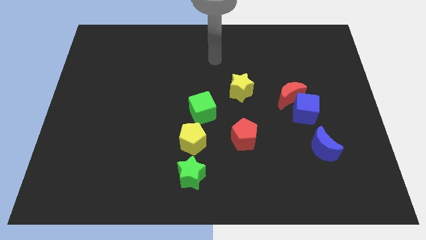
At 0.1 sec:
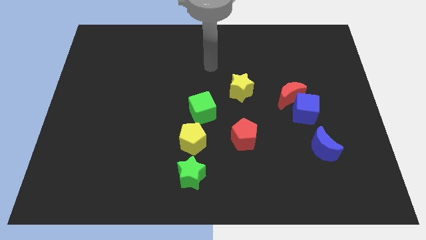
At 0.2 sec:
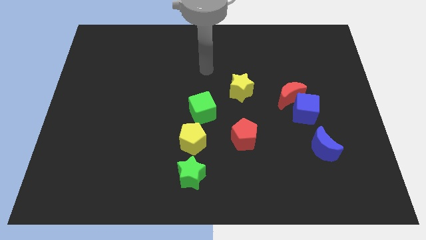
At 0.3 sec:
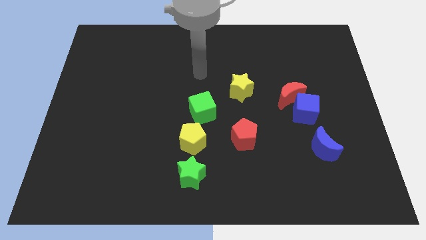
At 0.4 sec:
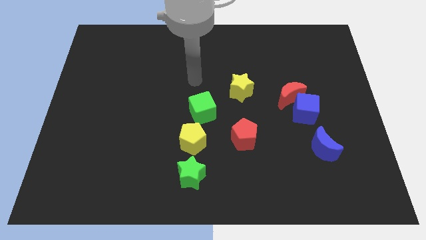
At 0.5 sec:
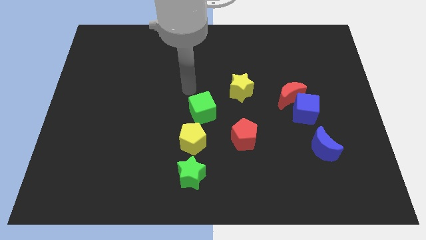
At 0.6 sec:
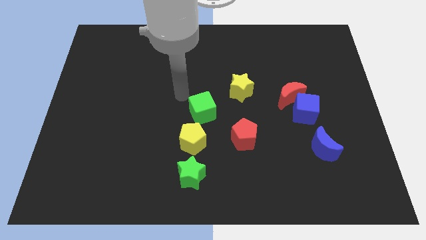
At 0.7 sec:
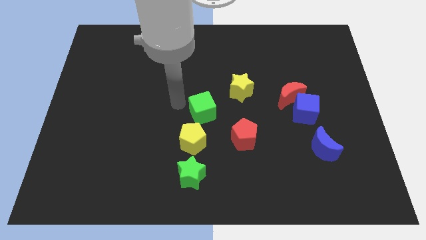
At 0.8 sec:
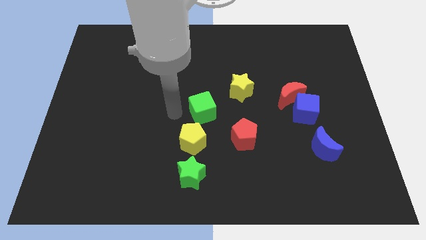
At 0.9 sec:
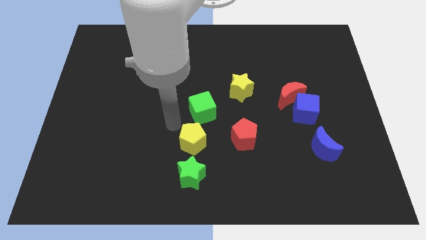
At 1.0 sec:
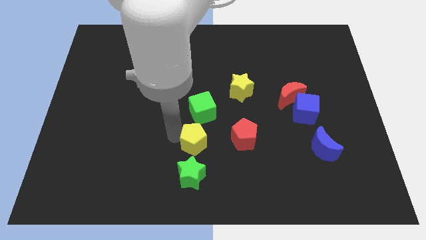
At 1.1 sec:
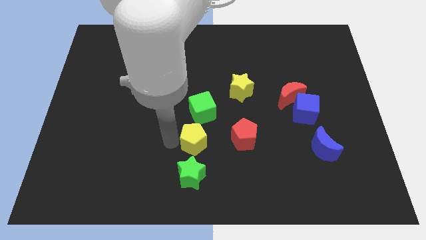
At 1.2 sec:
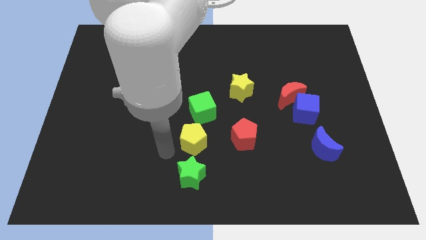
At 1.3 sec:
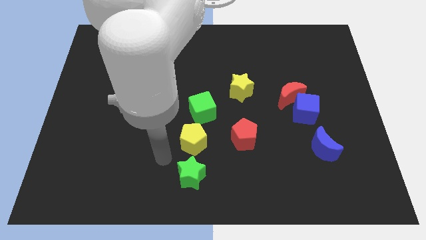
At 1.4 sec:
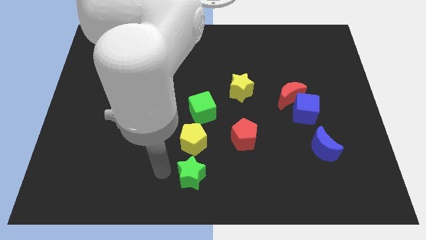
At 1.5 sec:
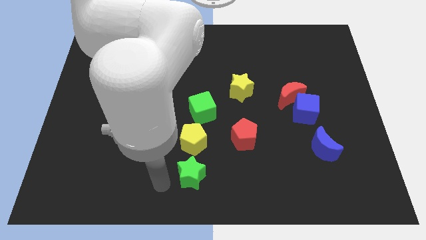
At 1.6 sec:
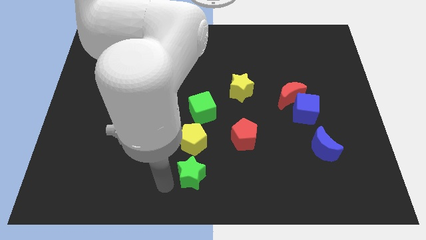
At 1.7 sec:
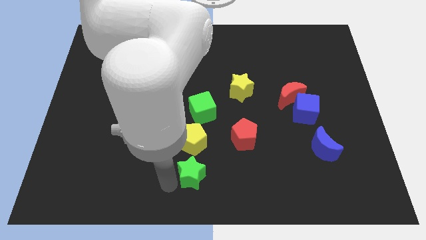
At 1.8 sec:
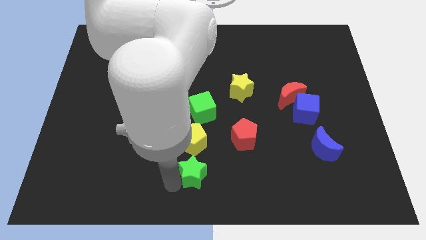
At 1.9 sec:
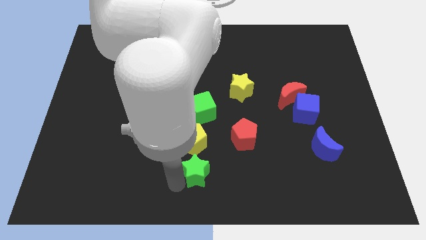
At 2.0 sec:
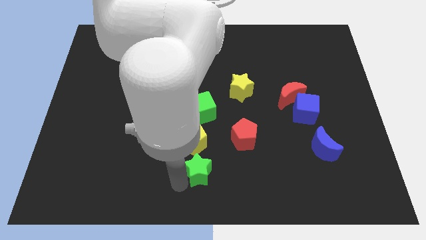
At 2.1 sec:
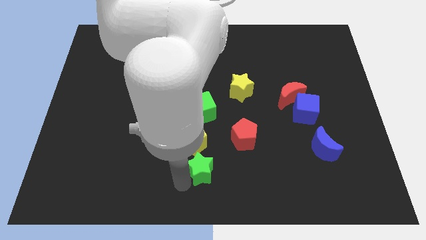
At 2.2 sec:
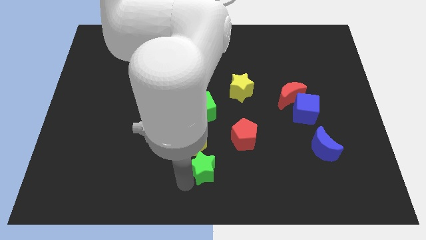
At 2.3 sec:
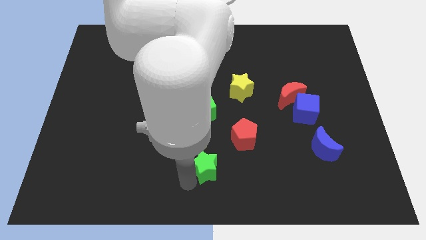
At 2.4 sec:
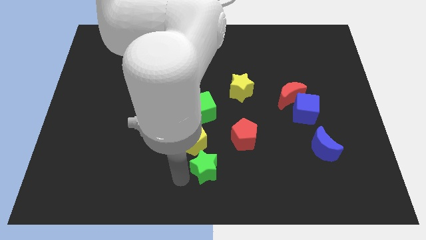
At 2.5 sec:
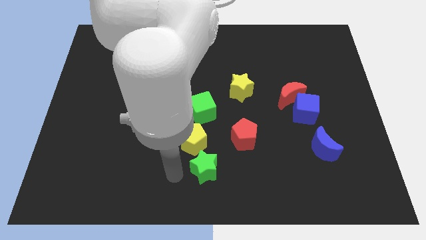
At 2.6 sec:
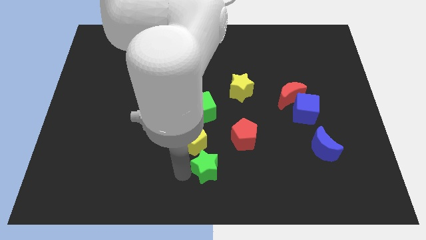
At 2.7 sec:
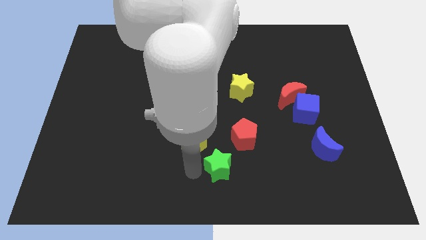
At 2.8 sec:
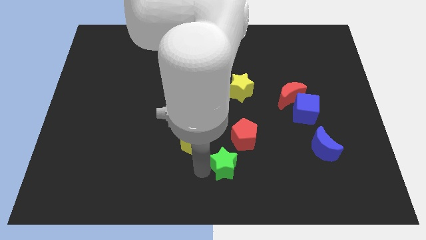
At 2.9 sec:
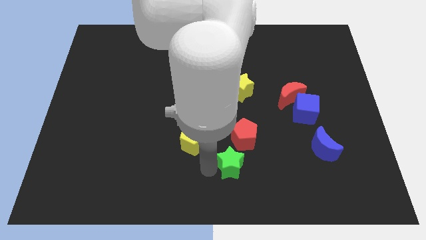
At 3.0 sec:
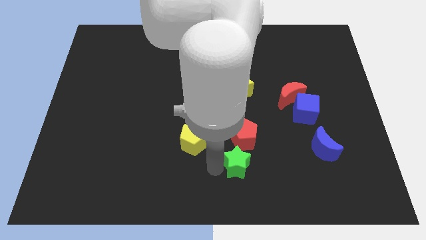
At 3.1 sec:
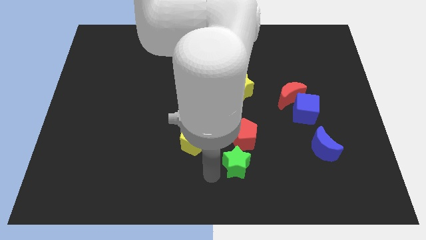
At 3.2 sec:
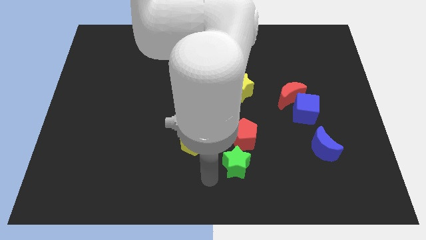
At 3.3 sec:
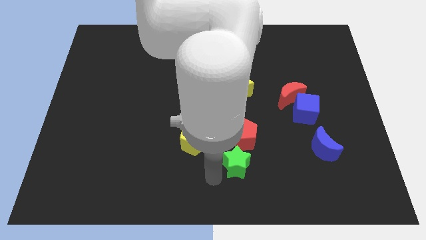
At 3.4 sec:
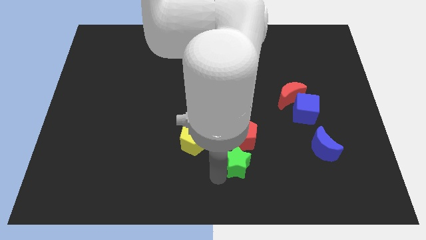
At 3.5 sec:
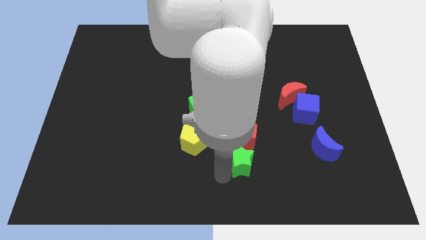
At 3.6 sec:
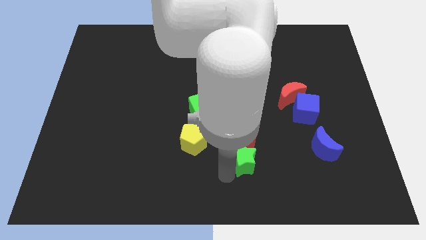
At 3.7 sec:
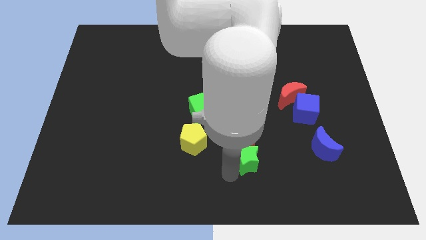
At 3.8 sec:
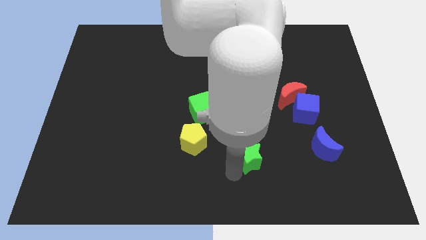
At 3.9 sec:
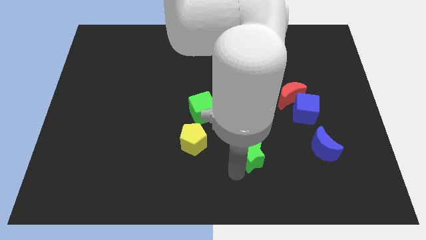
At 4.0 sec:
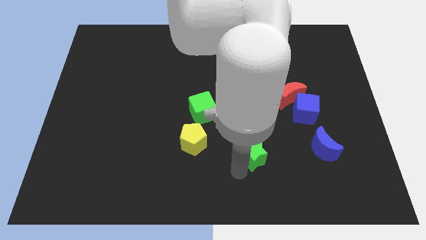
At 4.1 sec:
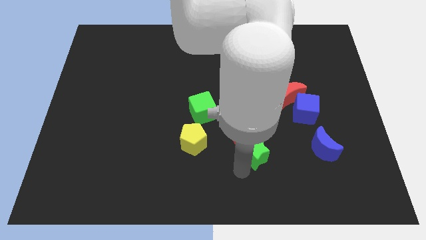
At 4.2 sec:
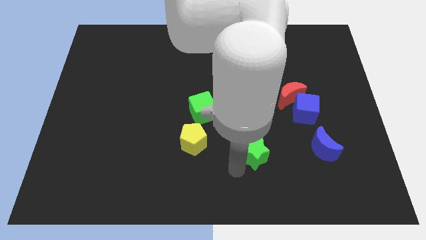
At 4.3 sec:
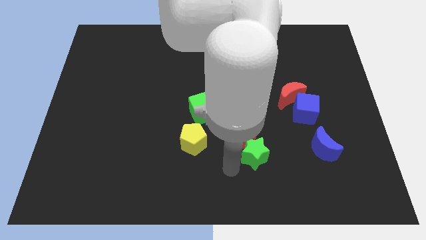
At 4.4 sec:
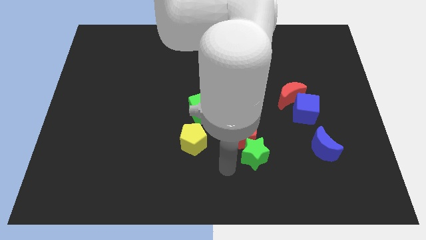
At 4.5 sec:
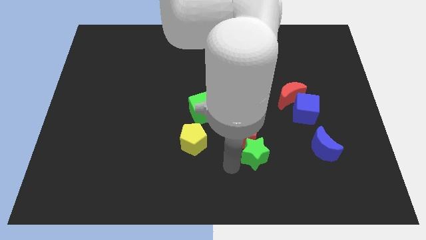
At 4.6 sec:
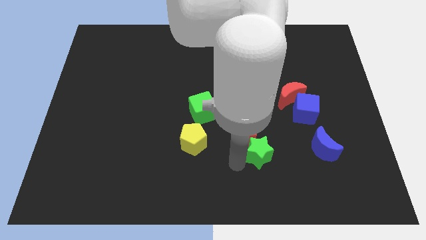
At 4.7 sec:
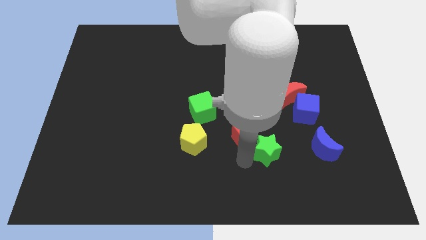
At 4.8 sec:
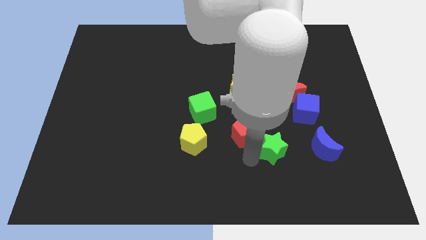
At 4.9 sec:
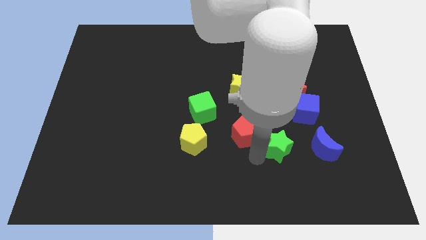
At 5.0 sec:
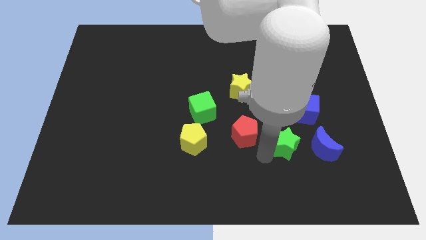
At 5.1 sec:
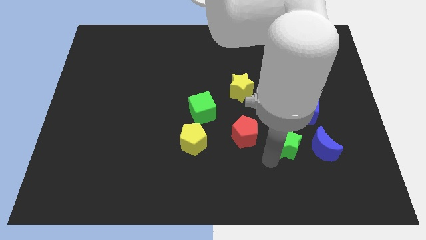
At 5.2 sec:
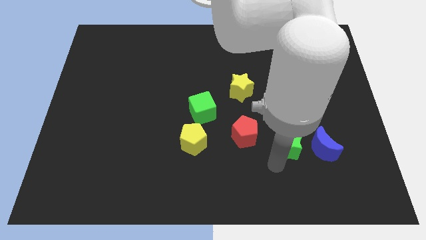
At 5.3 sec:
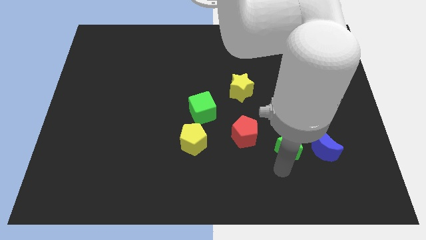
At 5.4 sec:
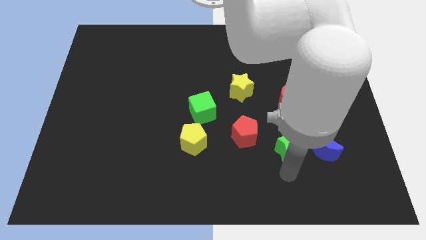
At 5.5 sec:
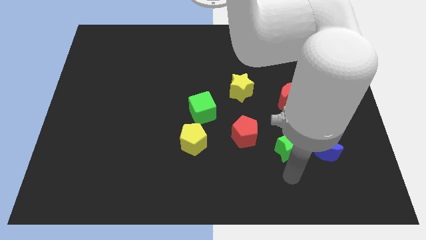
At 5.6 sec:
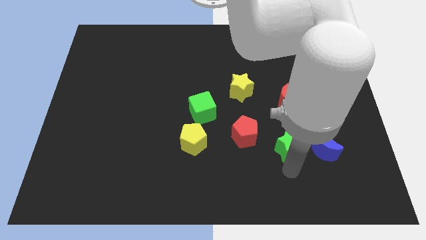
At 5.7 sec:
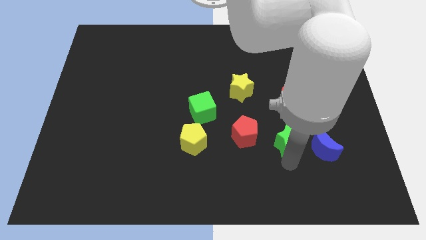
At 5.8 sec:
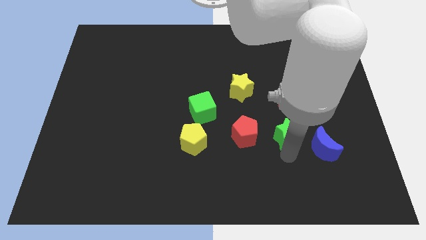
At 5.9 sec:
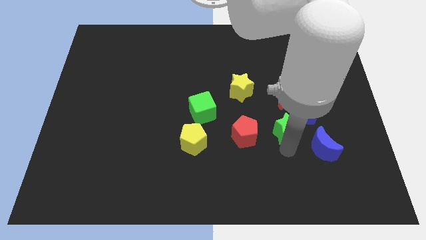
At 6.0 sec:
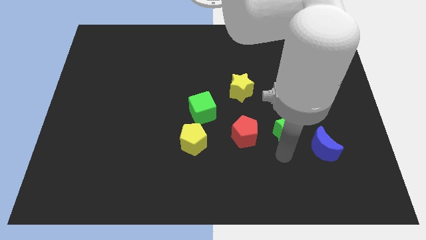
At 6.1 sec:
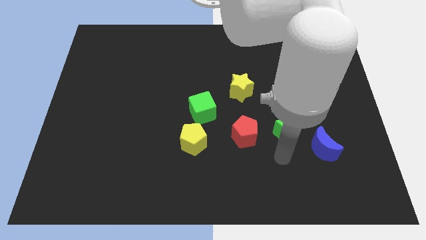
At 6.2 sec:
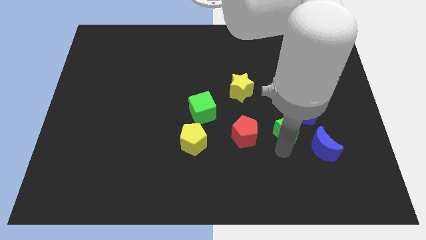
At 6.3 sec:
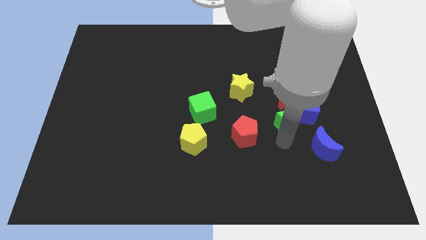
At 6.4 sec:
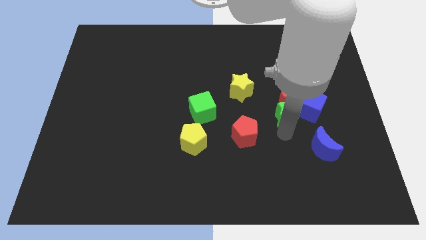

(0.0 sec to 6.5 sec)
put the green star to the red moon

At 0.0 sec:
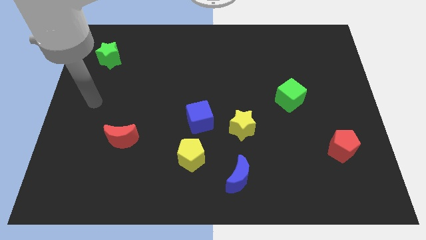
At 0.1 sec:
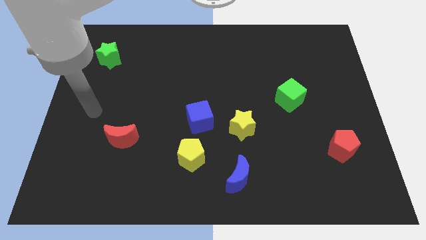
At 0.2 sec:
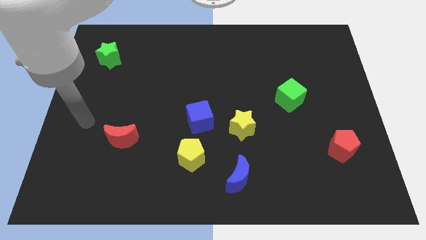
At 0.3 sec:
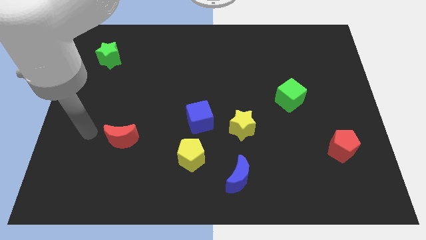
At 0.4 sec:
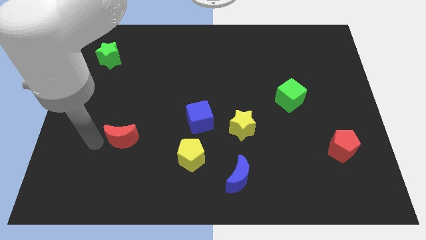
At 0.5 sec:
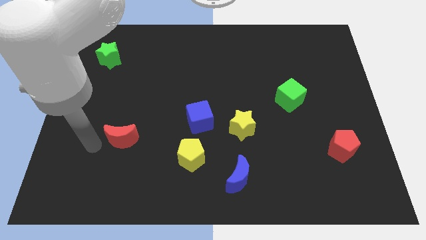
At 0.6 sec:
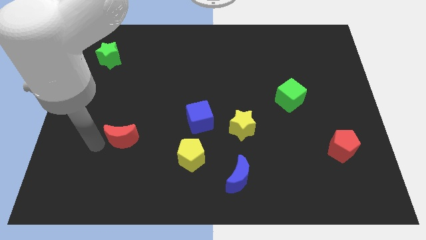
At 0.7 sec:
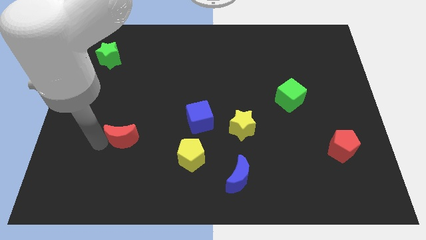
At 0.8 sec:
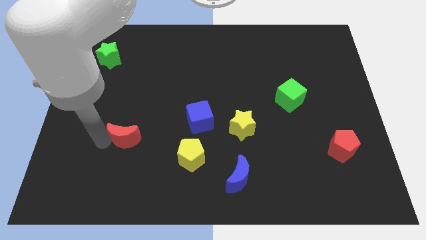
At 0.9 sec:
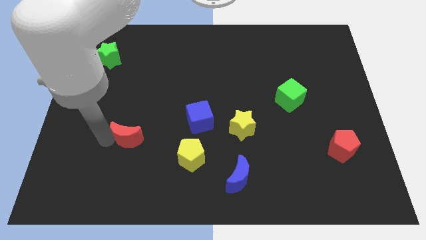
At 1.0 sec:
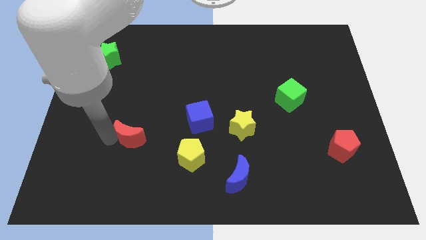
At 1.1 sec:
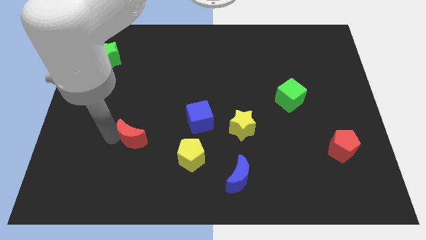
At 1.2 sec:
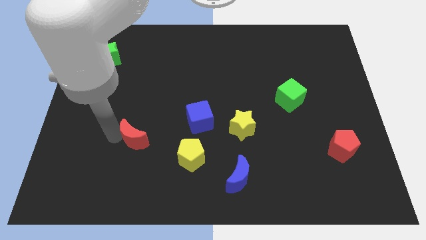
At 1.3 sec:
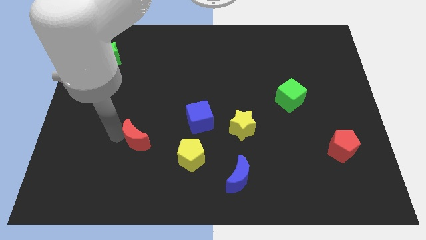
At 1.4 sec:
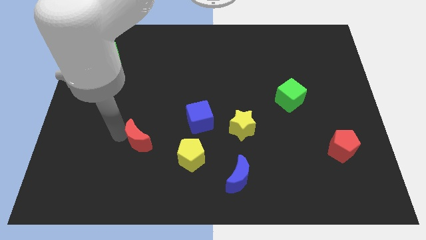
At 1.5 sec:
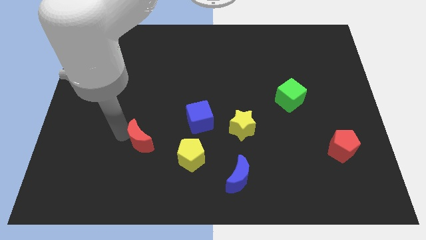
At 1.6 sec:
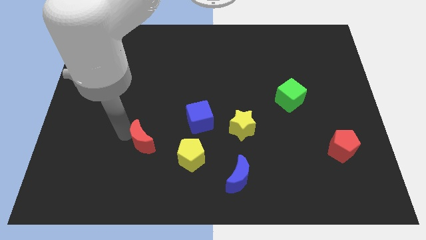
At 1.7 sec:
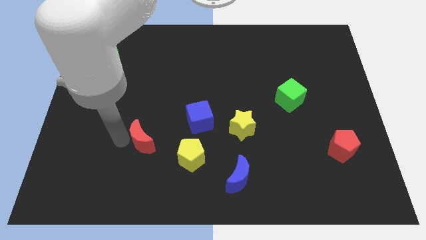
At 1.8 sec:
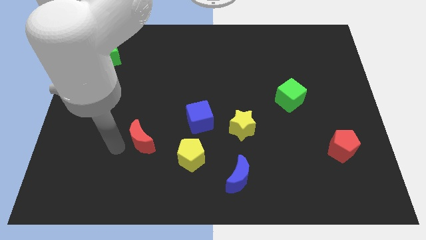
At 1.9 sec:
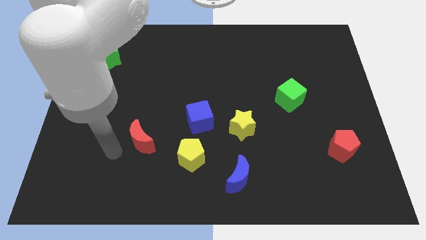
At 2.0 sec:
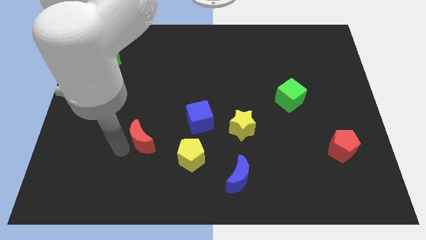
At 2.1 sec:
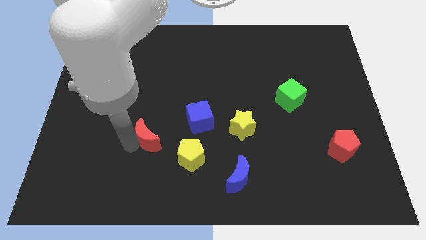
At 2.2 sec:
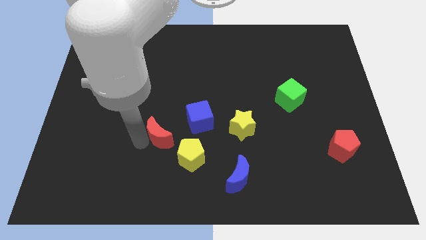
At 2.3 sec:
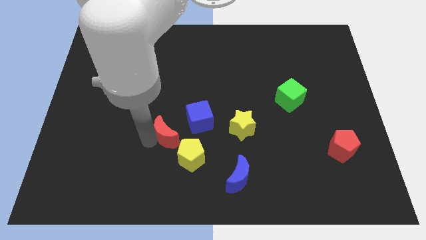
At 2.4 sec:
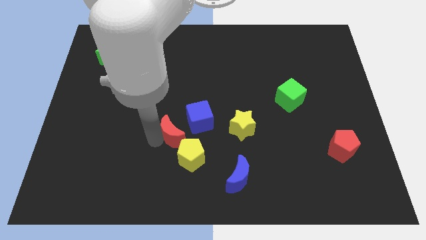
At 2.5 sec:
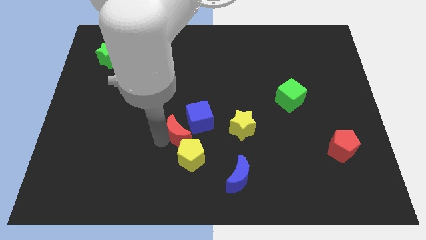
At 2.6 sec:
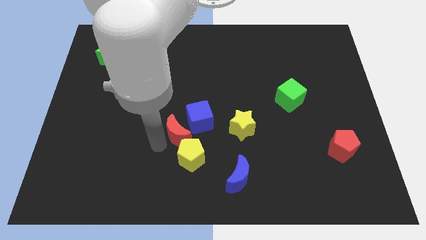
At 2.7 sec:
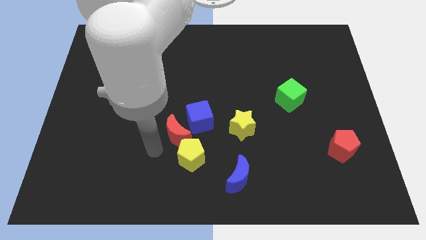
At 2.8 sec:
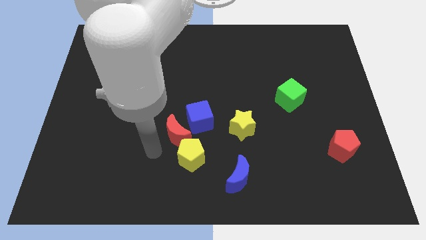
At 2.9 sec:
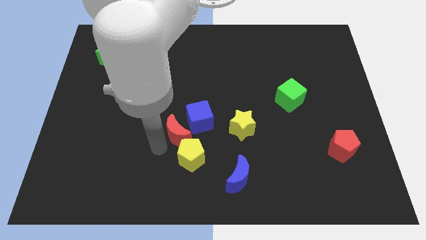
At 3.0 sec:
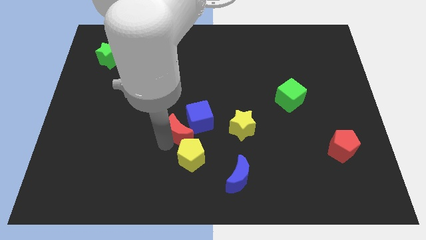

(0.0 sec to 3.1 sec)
slide the red moon close to the blue cube
